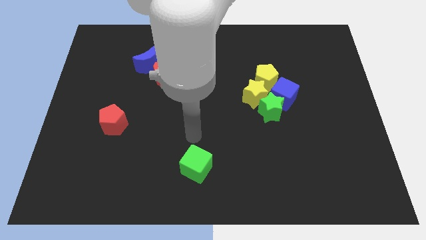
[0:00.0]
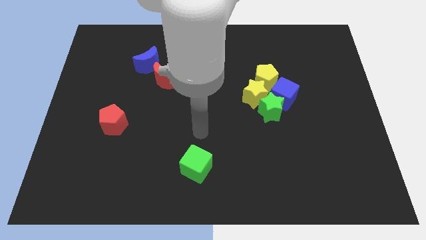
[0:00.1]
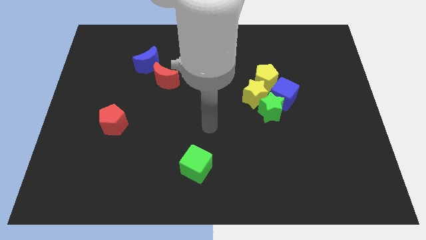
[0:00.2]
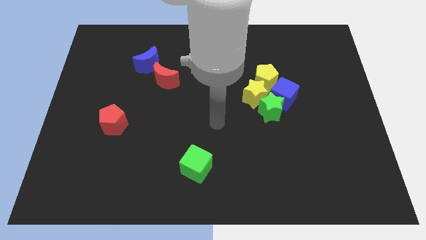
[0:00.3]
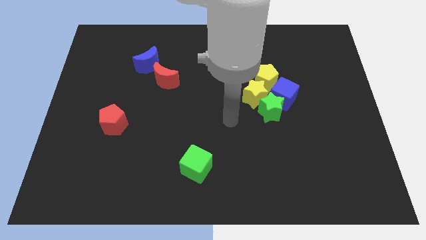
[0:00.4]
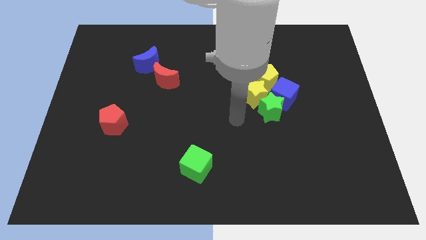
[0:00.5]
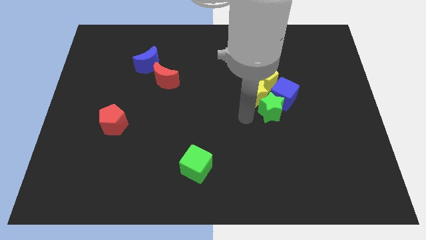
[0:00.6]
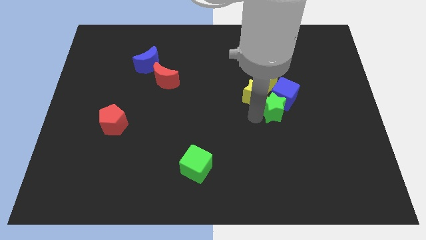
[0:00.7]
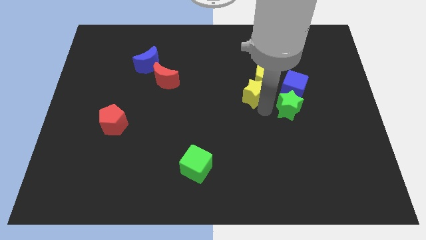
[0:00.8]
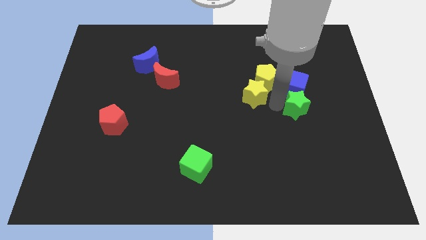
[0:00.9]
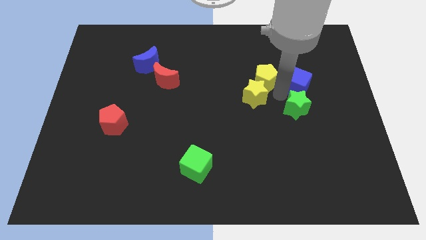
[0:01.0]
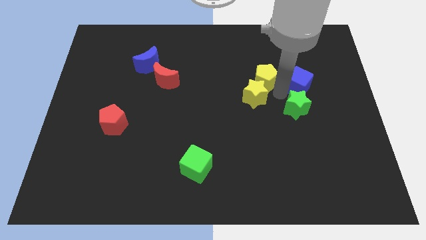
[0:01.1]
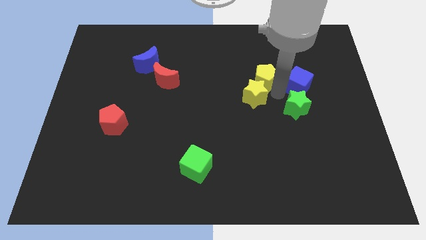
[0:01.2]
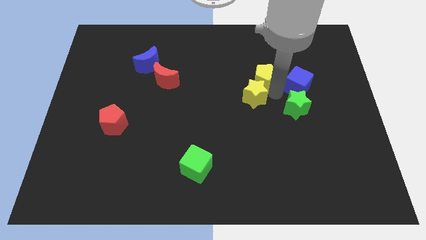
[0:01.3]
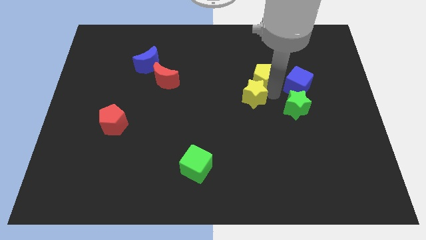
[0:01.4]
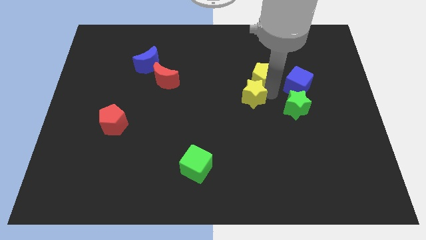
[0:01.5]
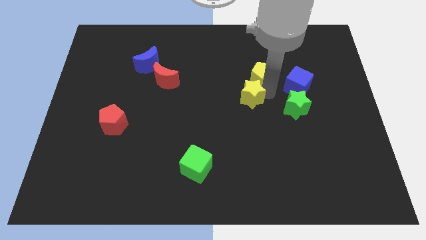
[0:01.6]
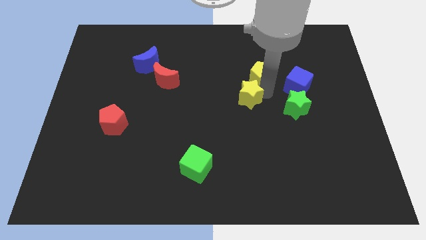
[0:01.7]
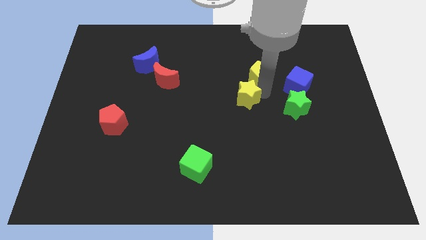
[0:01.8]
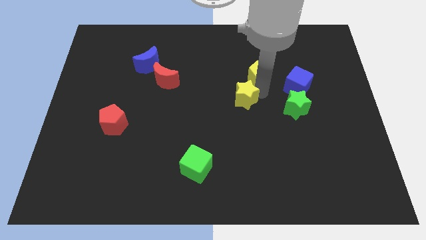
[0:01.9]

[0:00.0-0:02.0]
move the yellow star away from the green star, yellow pentagon, and blue cube

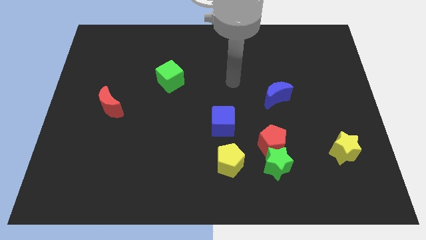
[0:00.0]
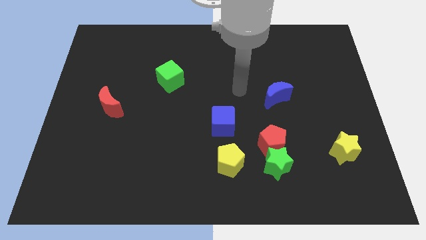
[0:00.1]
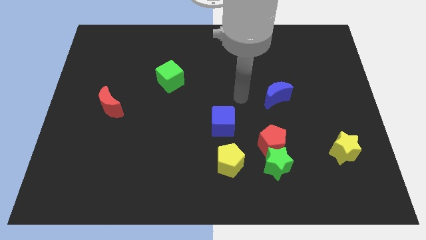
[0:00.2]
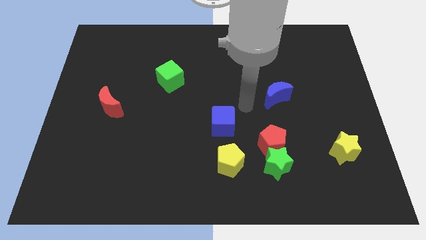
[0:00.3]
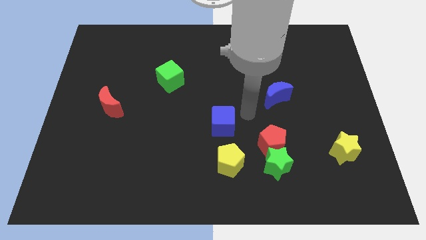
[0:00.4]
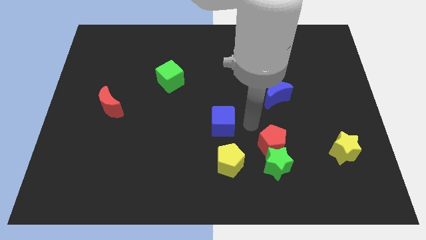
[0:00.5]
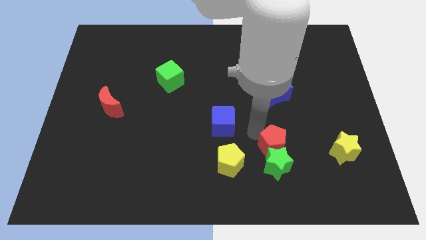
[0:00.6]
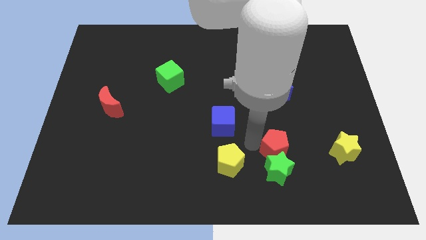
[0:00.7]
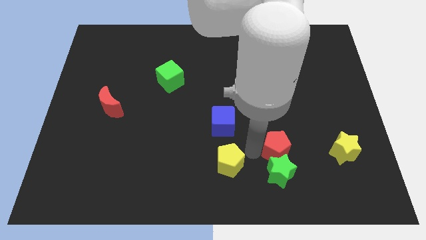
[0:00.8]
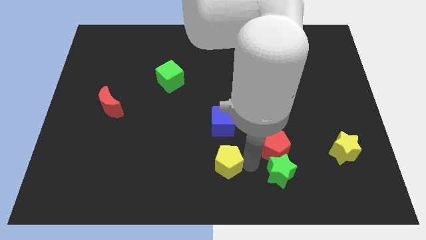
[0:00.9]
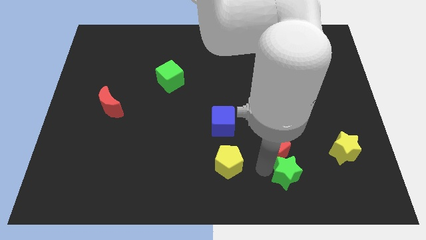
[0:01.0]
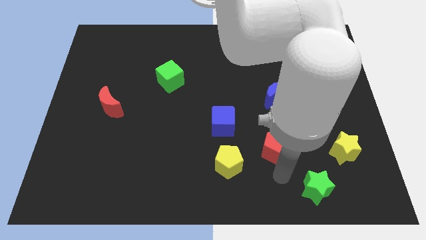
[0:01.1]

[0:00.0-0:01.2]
pull the red pentagon apart from the green star

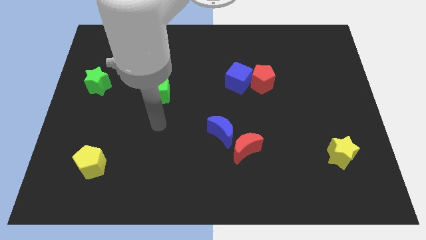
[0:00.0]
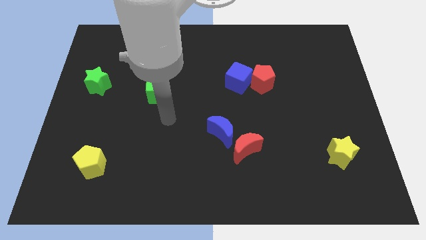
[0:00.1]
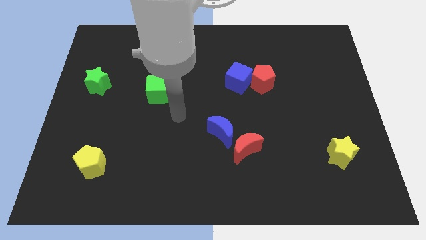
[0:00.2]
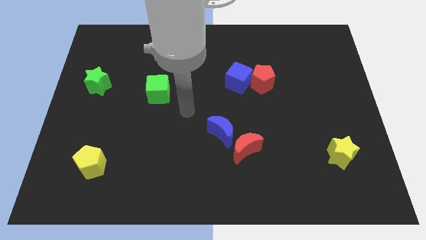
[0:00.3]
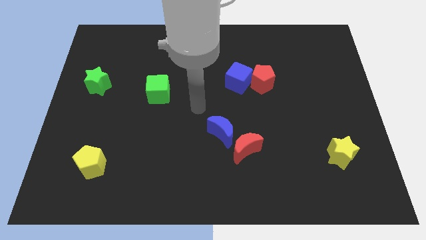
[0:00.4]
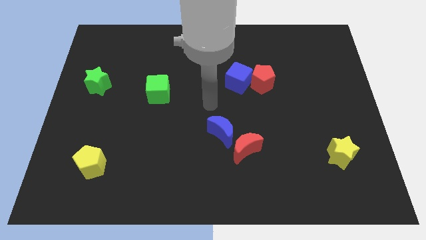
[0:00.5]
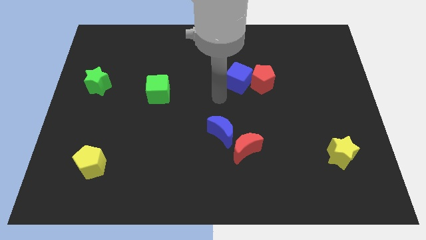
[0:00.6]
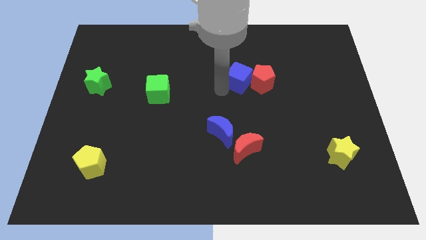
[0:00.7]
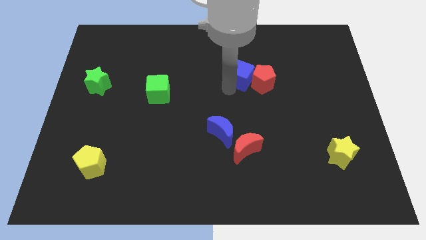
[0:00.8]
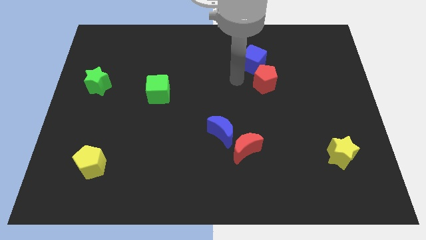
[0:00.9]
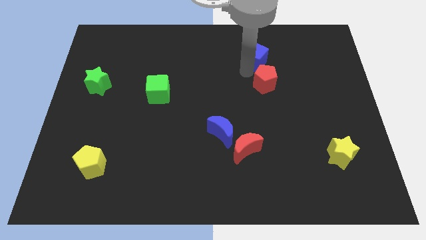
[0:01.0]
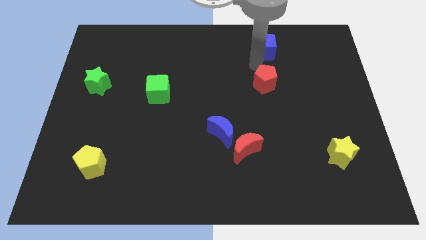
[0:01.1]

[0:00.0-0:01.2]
move the red pentagon away from the blue cube

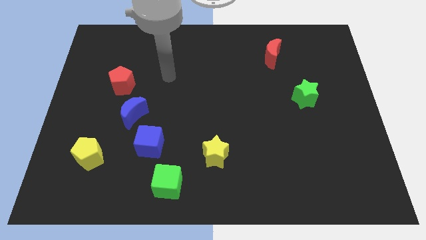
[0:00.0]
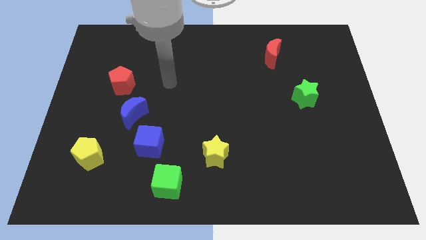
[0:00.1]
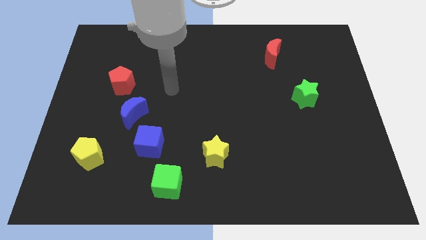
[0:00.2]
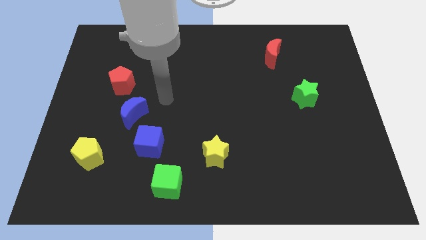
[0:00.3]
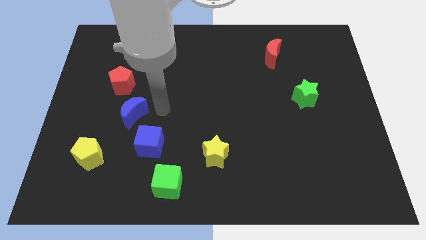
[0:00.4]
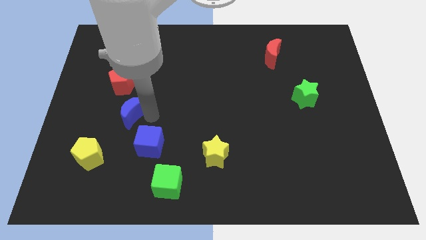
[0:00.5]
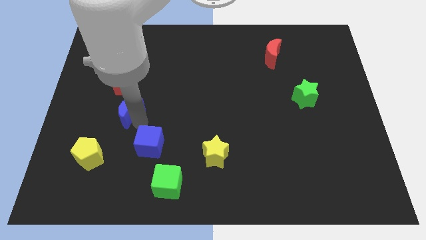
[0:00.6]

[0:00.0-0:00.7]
pull the blue cube apart from the blue moon

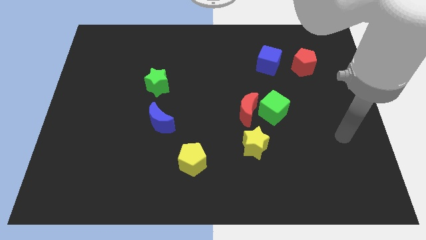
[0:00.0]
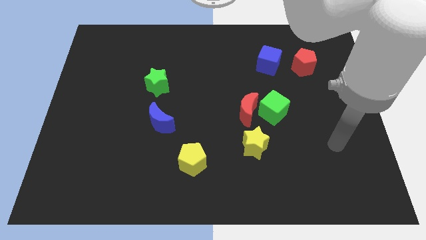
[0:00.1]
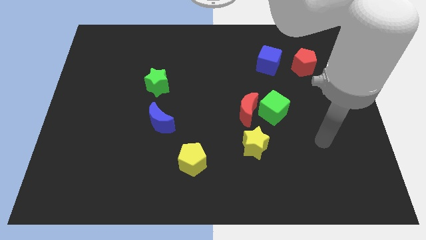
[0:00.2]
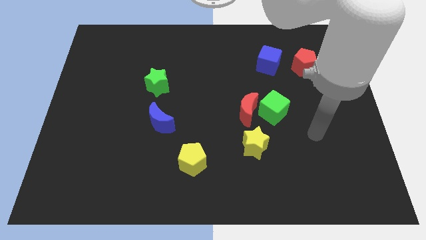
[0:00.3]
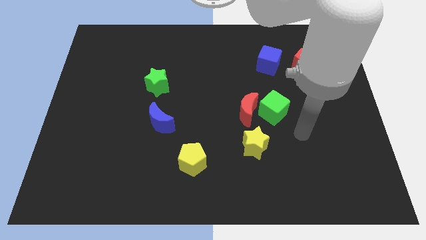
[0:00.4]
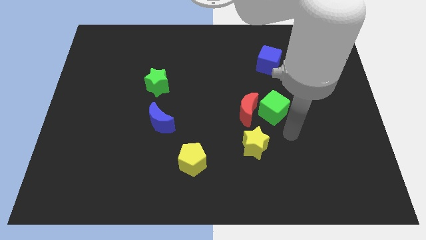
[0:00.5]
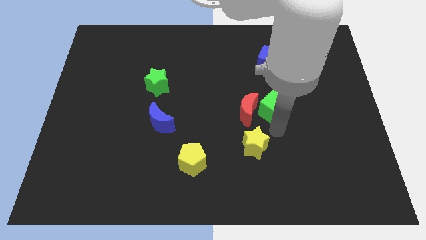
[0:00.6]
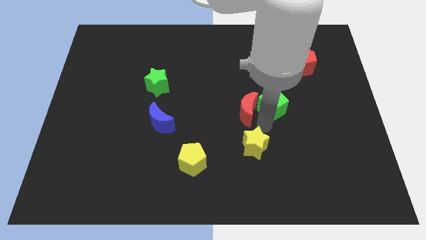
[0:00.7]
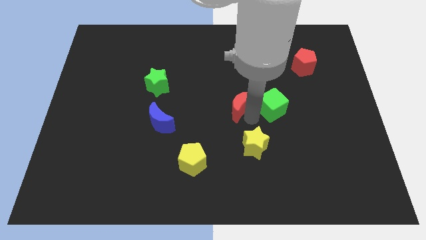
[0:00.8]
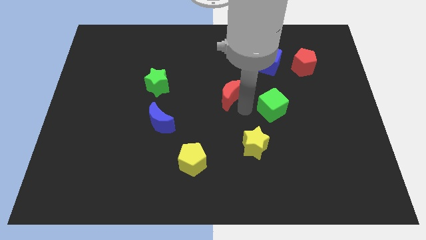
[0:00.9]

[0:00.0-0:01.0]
separate the green cube from the red moon

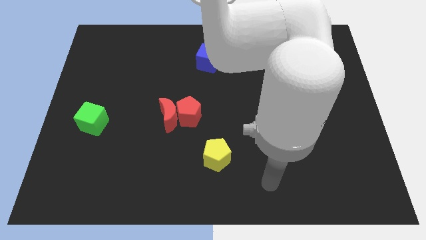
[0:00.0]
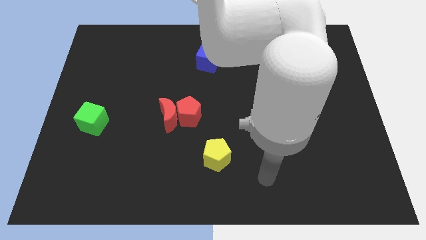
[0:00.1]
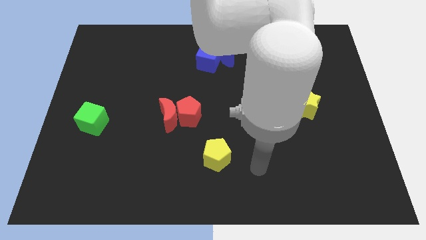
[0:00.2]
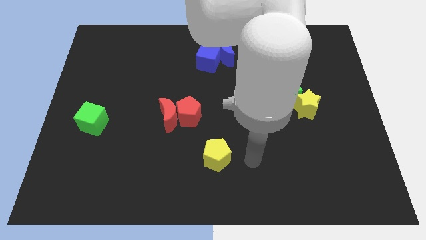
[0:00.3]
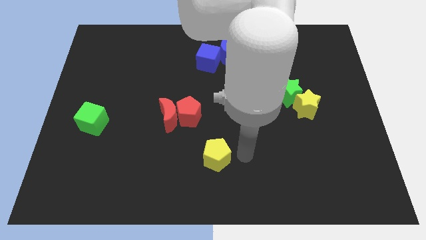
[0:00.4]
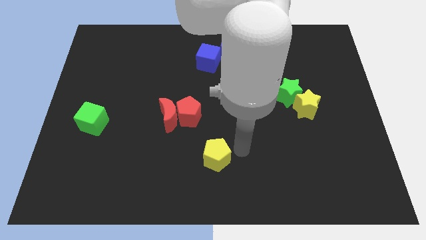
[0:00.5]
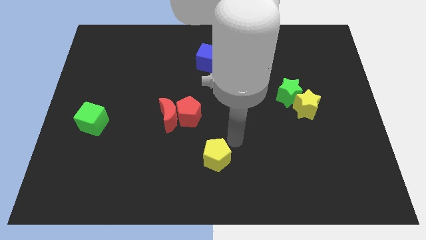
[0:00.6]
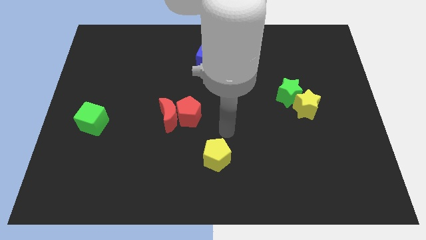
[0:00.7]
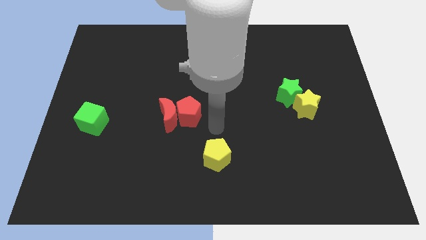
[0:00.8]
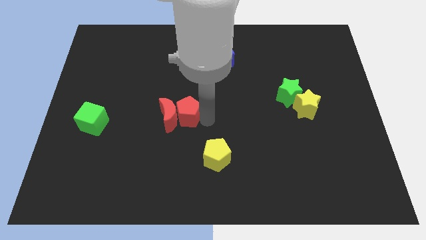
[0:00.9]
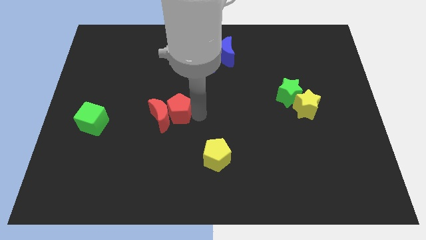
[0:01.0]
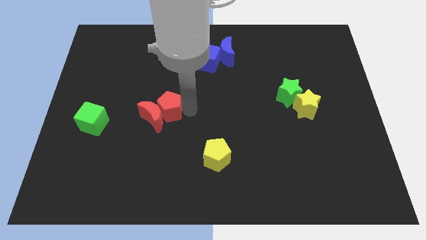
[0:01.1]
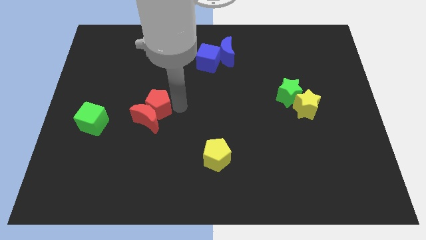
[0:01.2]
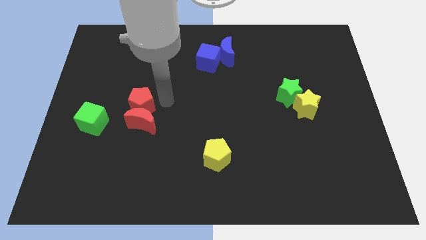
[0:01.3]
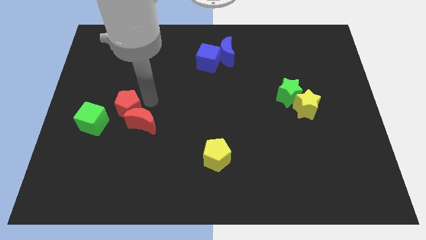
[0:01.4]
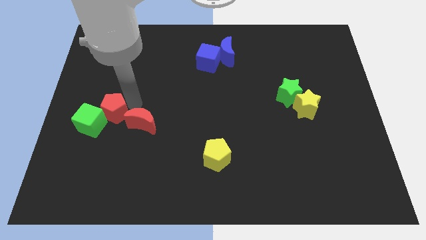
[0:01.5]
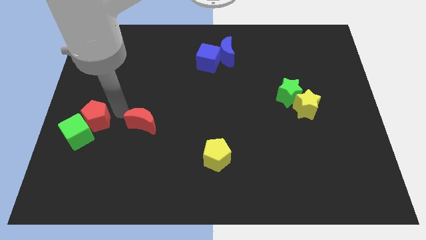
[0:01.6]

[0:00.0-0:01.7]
pull the red moon apart from the red pentagon

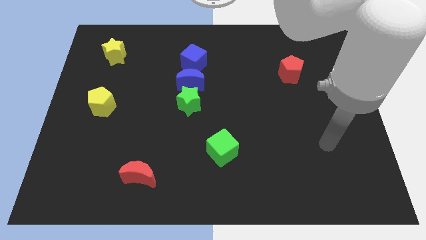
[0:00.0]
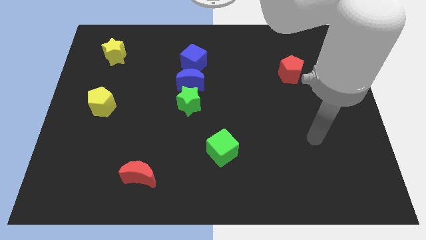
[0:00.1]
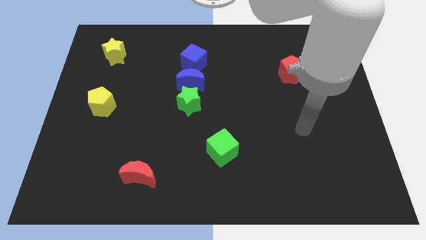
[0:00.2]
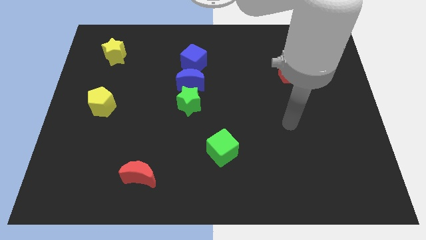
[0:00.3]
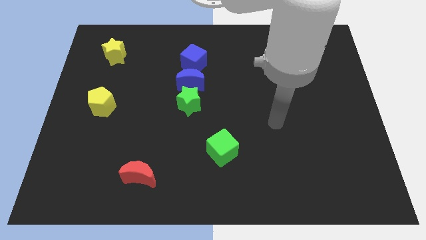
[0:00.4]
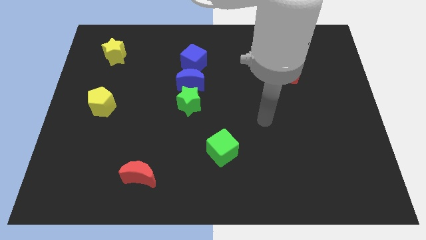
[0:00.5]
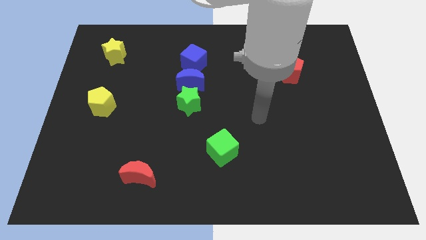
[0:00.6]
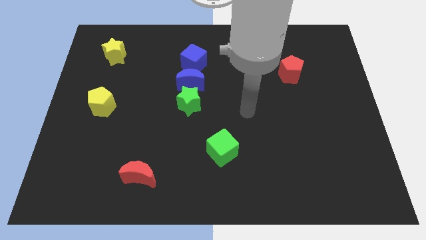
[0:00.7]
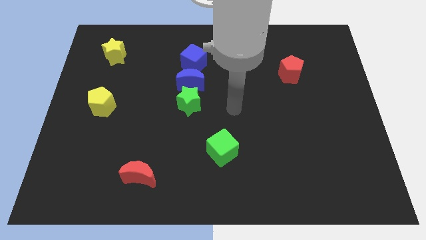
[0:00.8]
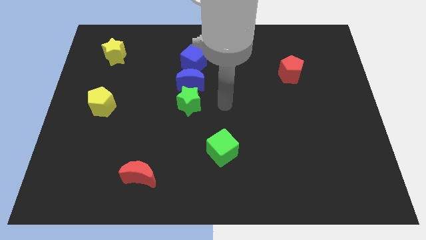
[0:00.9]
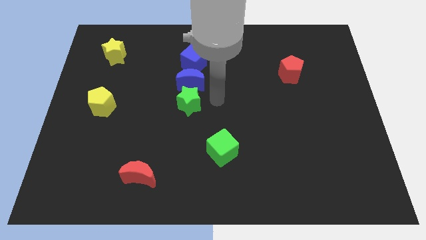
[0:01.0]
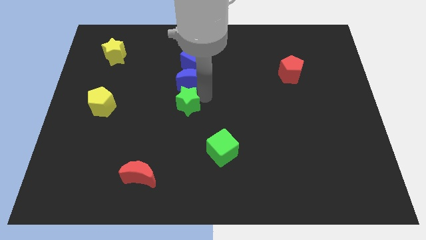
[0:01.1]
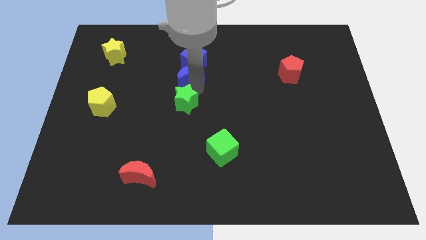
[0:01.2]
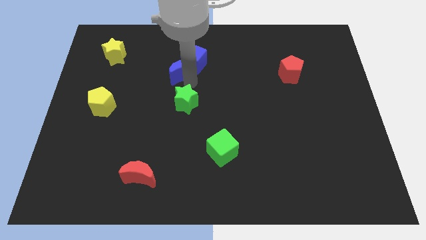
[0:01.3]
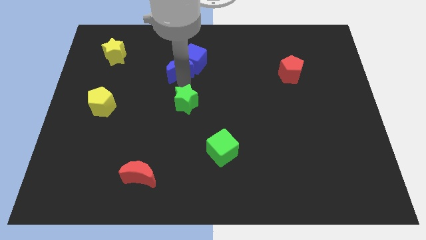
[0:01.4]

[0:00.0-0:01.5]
separate the green star from the blue moon

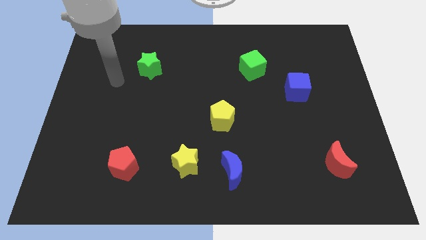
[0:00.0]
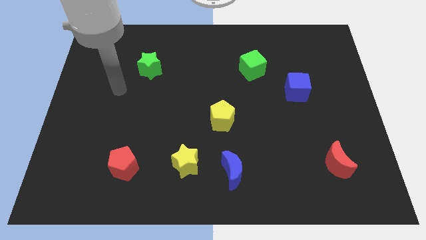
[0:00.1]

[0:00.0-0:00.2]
separate the blue moon from the yellow star
